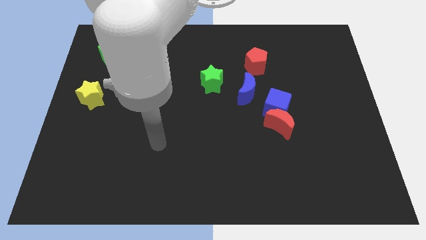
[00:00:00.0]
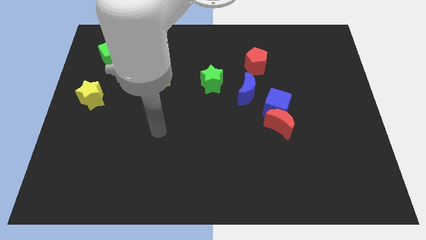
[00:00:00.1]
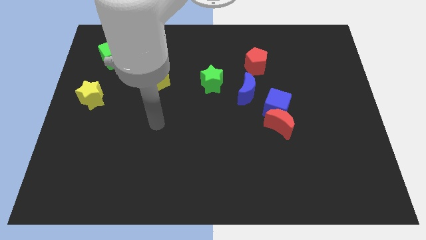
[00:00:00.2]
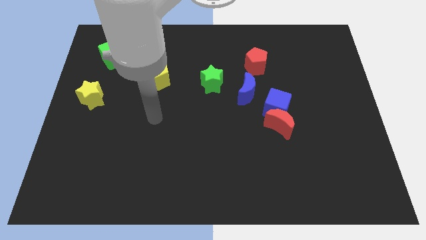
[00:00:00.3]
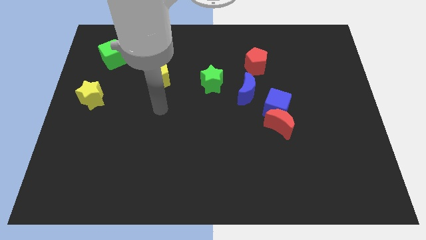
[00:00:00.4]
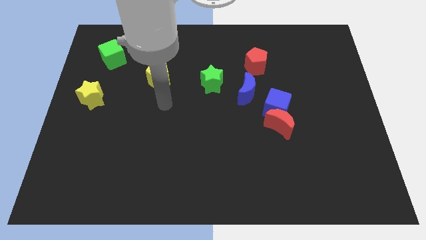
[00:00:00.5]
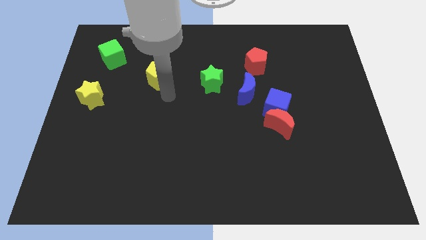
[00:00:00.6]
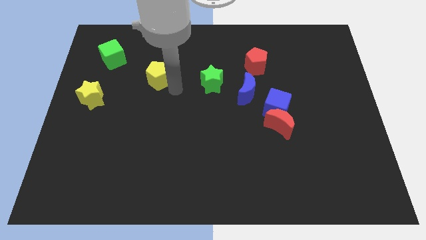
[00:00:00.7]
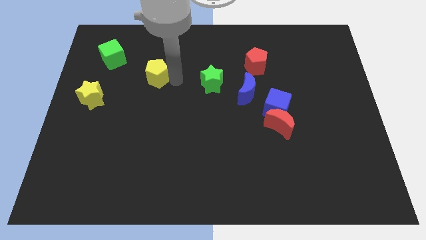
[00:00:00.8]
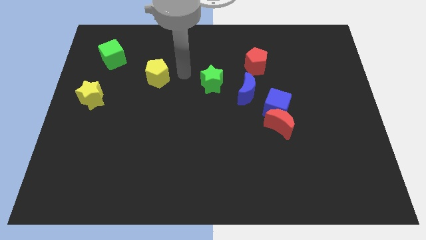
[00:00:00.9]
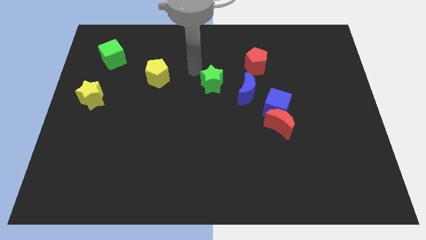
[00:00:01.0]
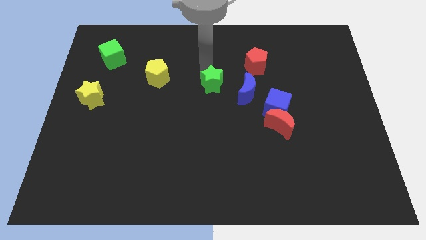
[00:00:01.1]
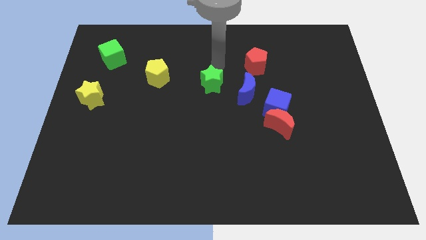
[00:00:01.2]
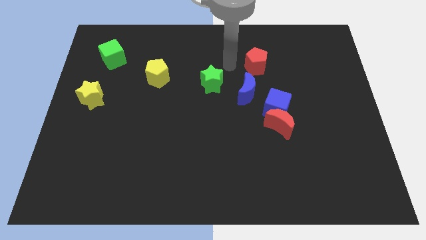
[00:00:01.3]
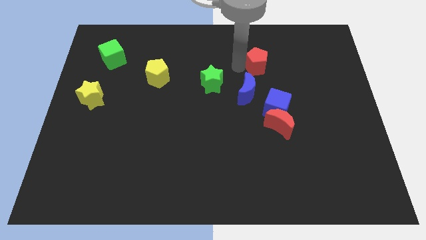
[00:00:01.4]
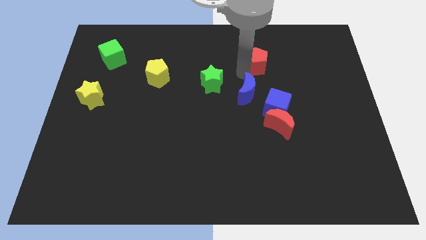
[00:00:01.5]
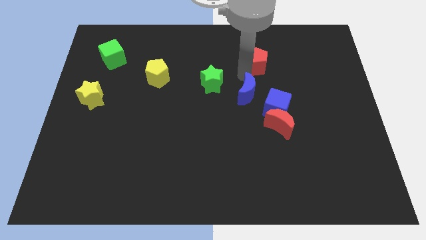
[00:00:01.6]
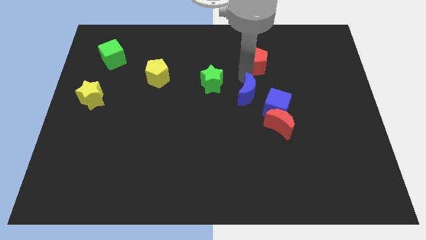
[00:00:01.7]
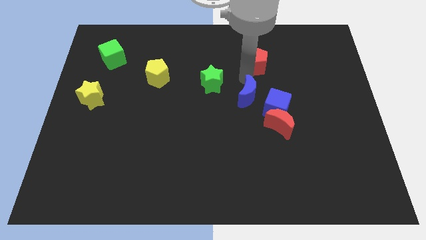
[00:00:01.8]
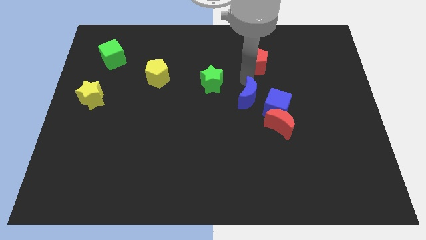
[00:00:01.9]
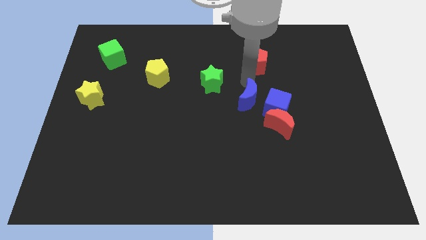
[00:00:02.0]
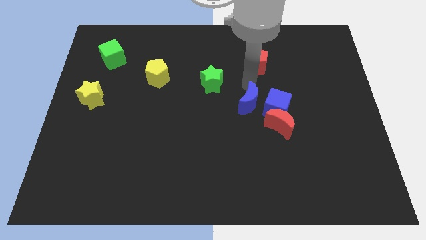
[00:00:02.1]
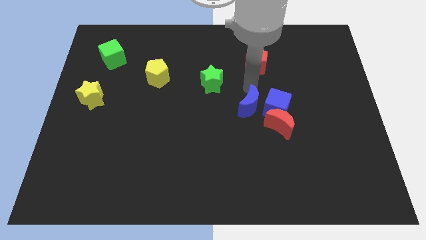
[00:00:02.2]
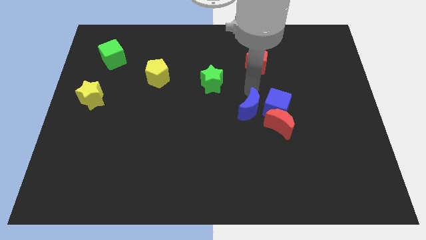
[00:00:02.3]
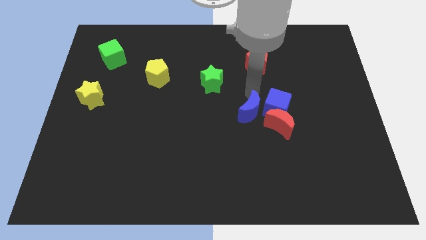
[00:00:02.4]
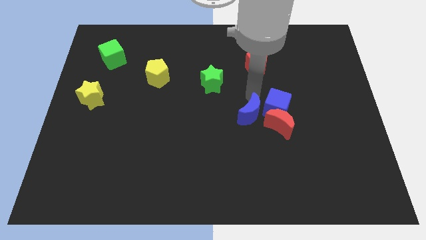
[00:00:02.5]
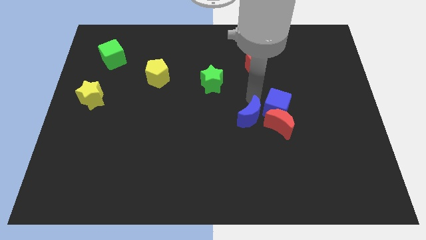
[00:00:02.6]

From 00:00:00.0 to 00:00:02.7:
move the blue moon down a little bit

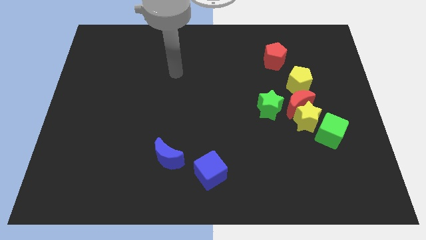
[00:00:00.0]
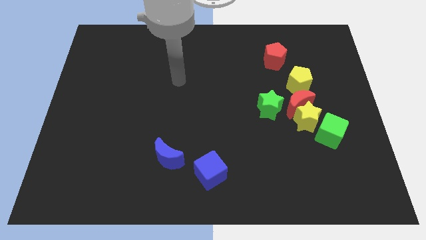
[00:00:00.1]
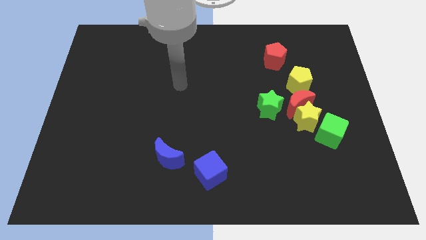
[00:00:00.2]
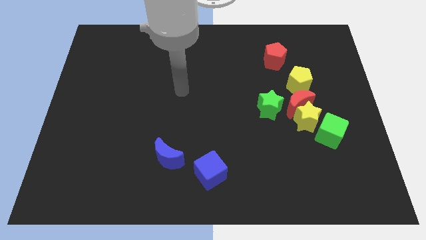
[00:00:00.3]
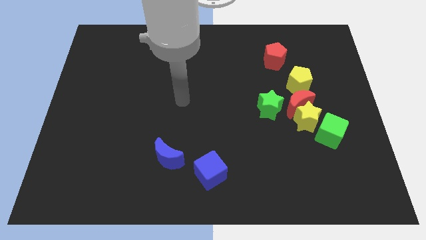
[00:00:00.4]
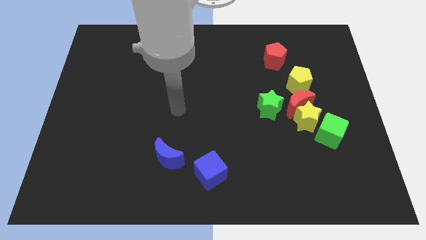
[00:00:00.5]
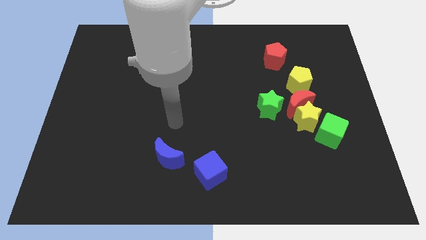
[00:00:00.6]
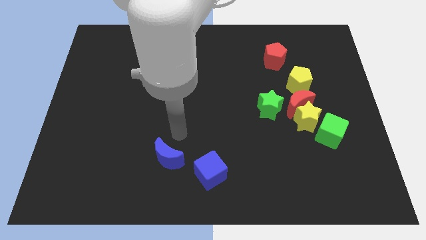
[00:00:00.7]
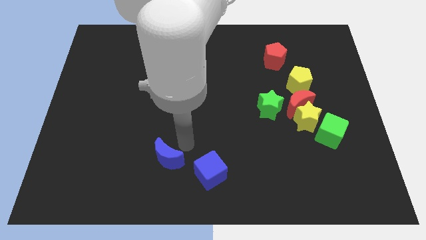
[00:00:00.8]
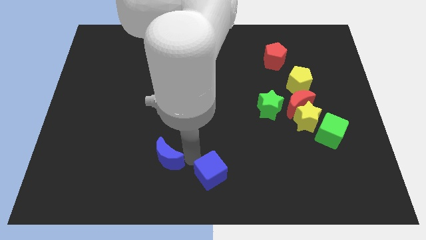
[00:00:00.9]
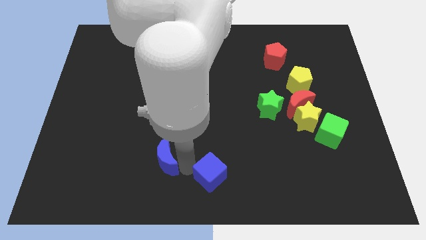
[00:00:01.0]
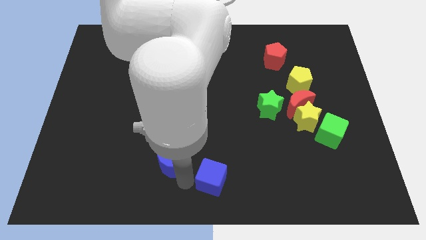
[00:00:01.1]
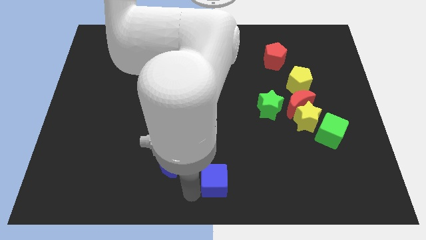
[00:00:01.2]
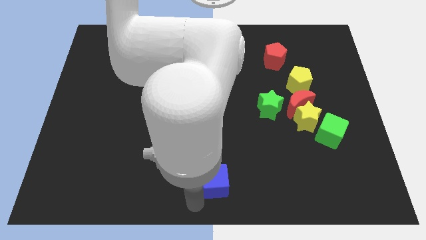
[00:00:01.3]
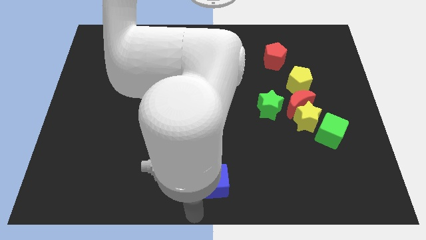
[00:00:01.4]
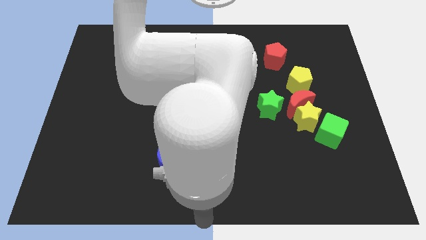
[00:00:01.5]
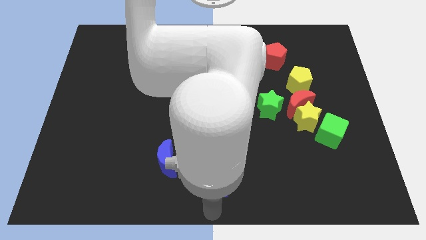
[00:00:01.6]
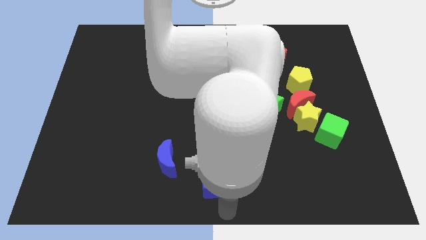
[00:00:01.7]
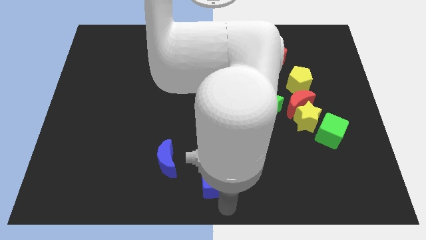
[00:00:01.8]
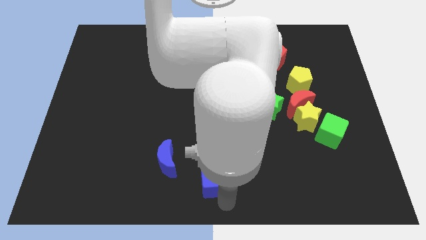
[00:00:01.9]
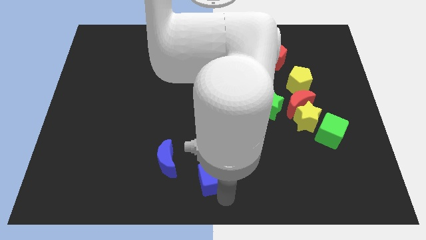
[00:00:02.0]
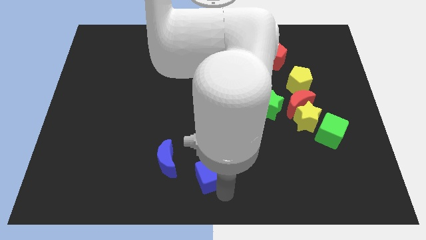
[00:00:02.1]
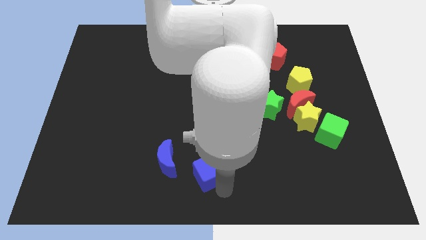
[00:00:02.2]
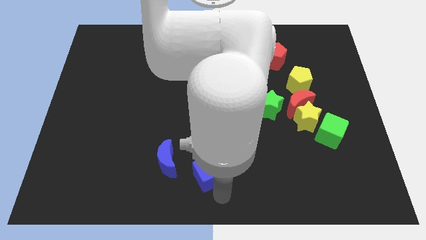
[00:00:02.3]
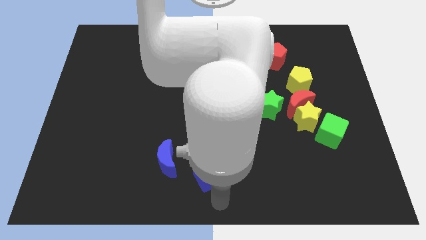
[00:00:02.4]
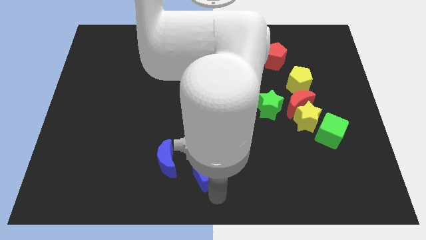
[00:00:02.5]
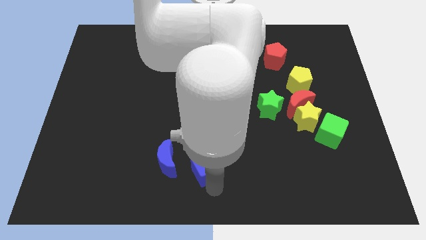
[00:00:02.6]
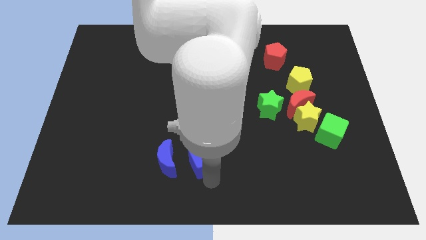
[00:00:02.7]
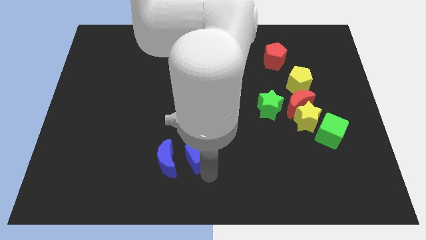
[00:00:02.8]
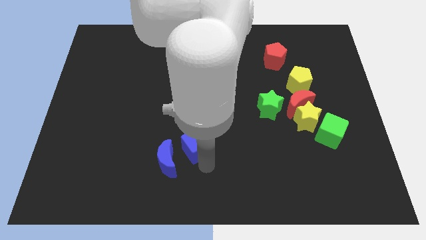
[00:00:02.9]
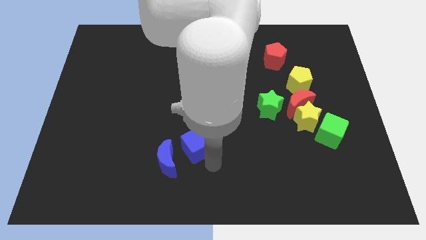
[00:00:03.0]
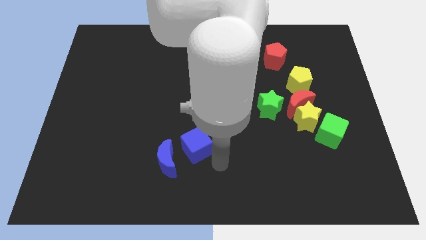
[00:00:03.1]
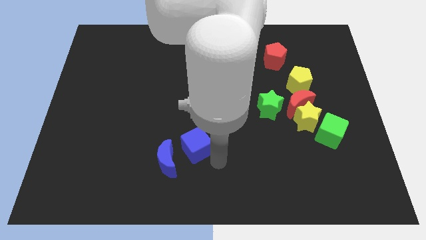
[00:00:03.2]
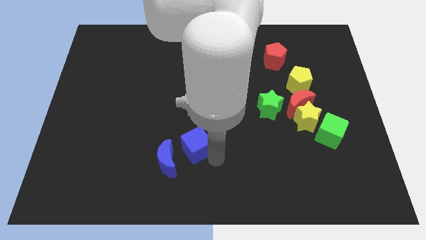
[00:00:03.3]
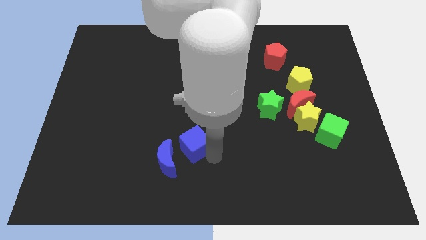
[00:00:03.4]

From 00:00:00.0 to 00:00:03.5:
slightly move the blue cube upwards and then left

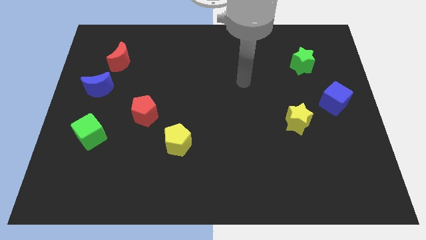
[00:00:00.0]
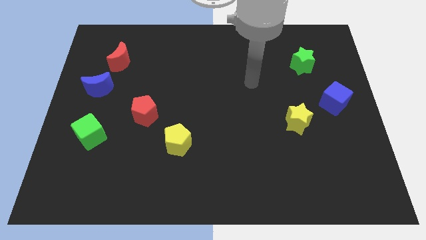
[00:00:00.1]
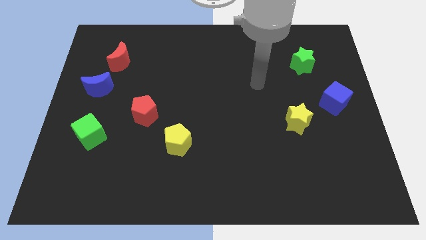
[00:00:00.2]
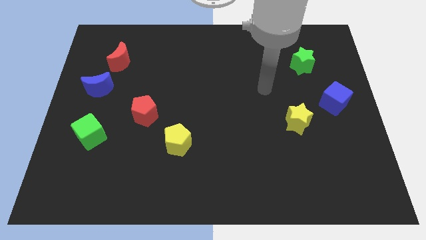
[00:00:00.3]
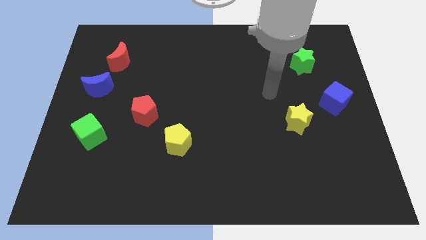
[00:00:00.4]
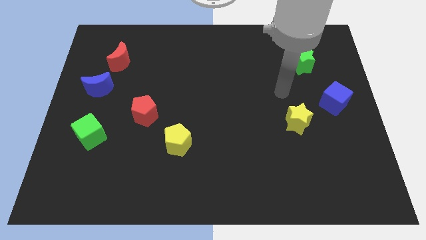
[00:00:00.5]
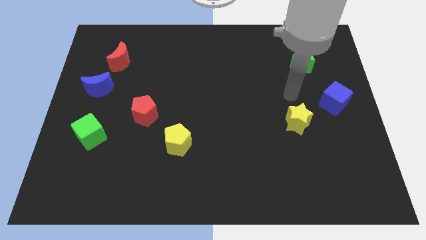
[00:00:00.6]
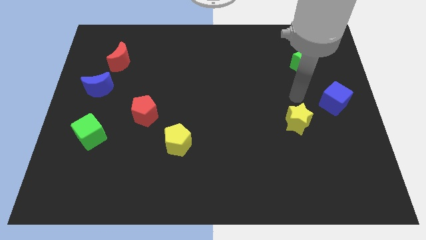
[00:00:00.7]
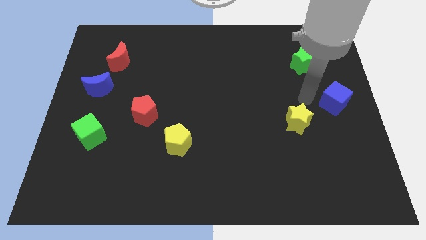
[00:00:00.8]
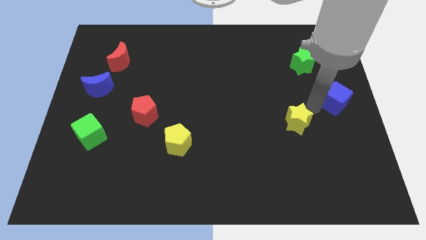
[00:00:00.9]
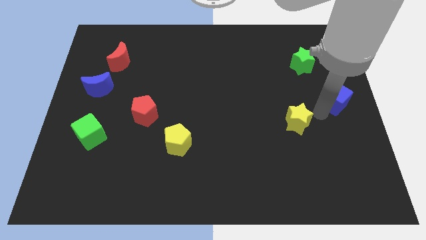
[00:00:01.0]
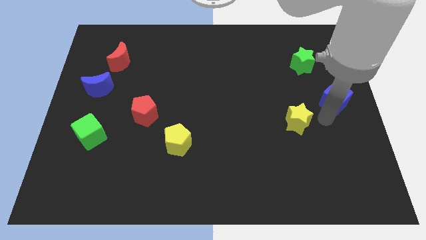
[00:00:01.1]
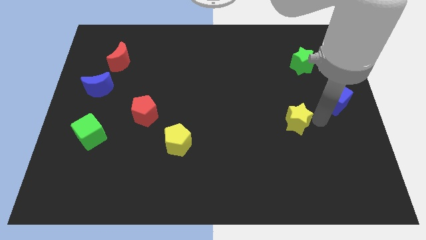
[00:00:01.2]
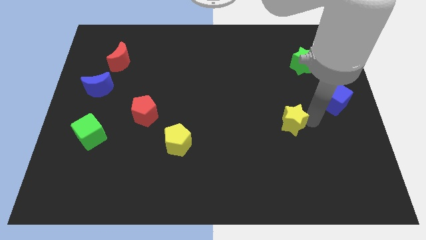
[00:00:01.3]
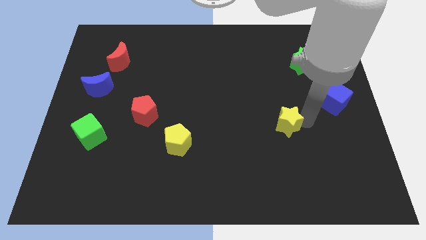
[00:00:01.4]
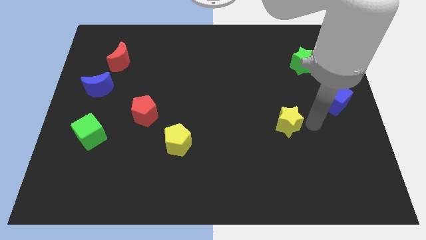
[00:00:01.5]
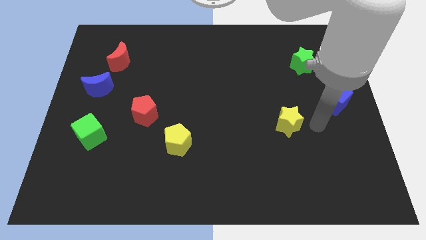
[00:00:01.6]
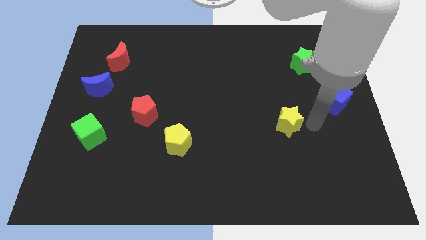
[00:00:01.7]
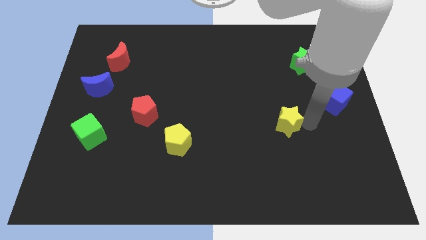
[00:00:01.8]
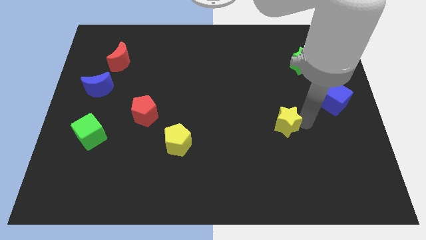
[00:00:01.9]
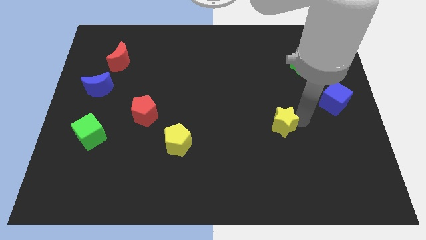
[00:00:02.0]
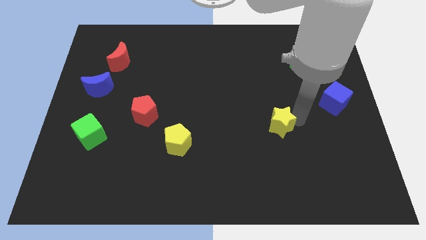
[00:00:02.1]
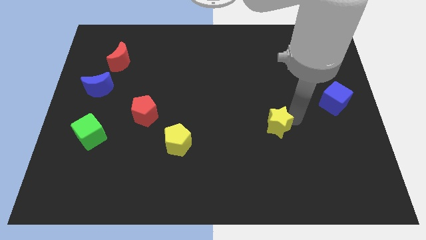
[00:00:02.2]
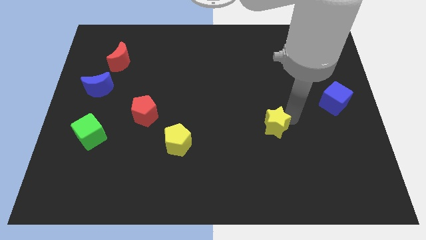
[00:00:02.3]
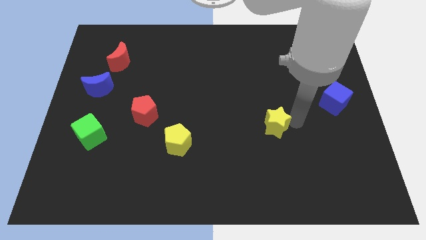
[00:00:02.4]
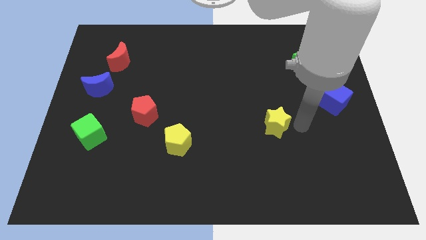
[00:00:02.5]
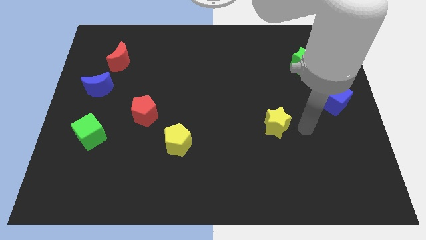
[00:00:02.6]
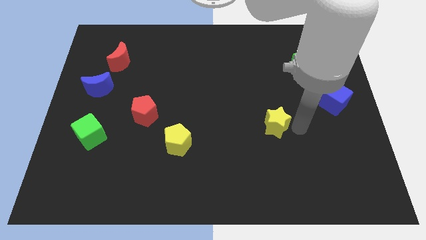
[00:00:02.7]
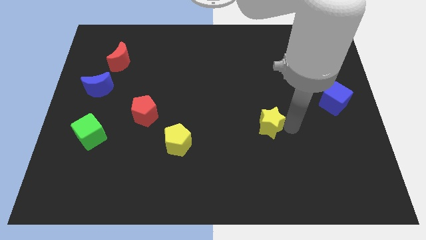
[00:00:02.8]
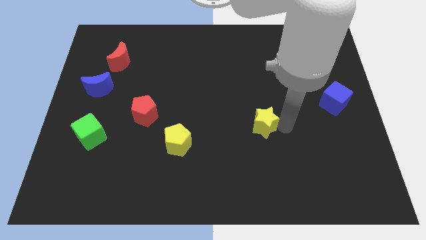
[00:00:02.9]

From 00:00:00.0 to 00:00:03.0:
slightly slide the yellow star to the left
